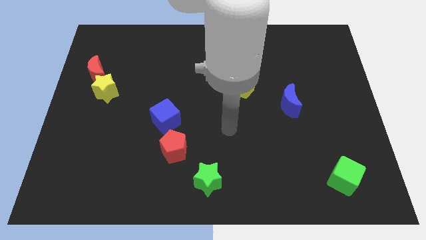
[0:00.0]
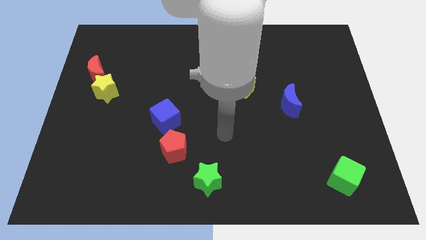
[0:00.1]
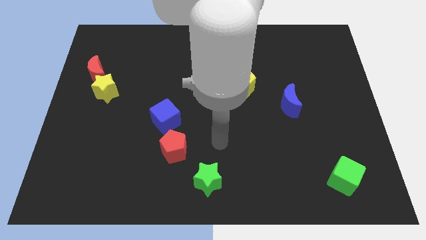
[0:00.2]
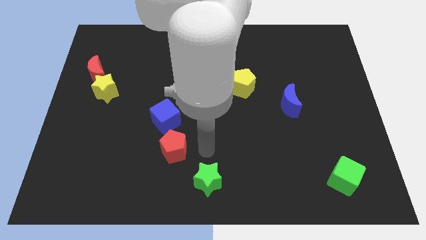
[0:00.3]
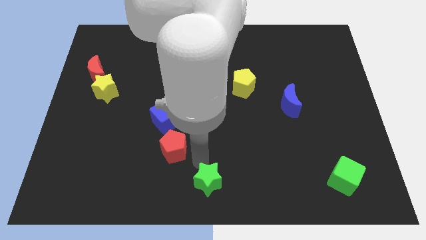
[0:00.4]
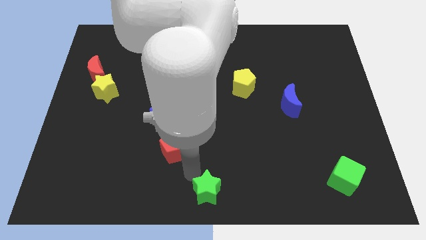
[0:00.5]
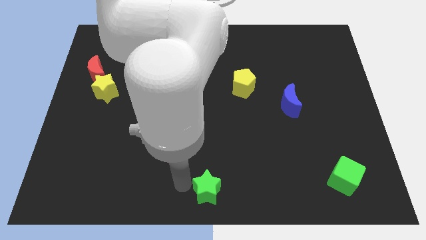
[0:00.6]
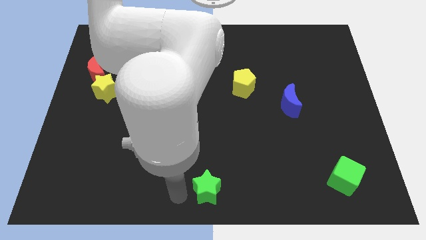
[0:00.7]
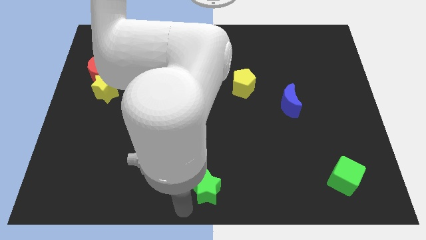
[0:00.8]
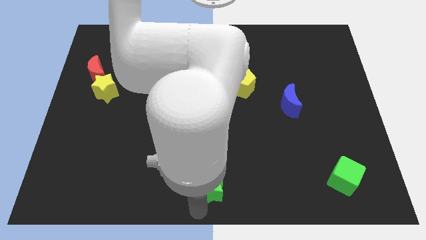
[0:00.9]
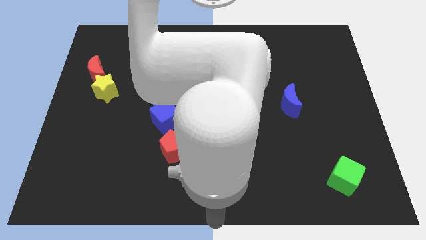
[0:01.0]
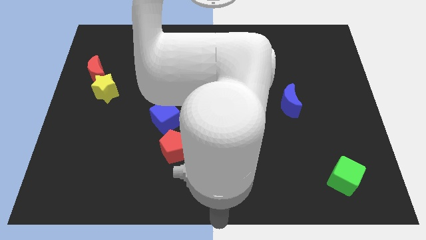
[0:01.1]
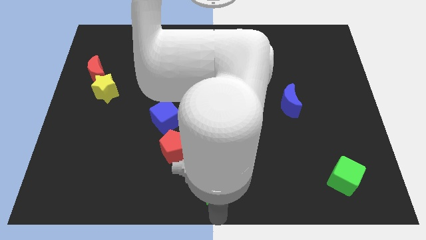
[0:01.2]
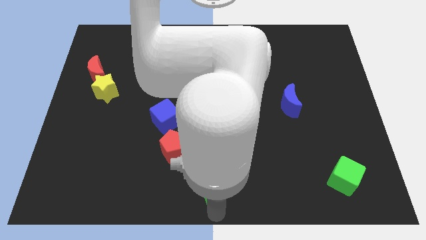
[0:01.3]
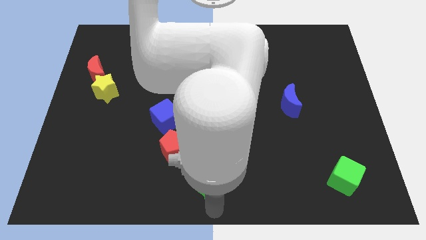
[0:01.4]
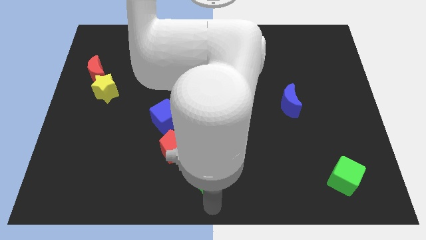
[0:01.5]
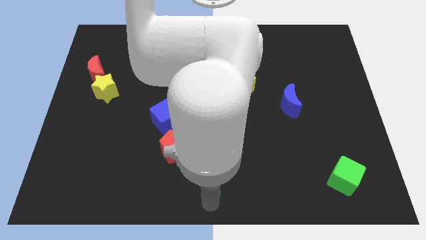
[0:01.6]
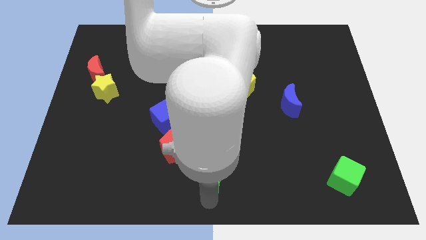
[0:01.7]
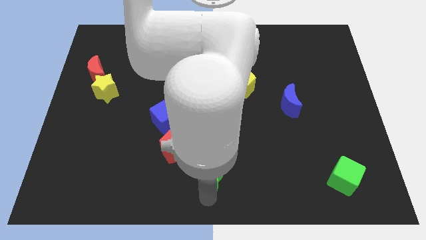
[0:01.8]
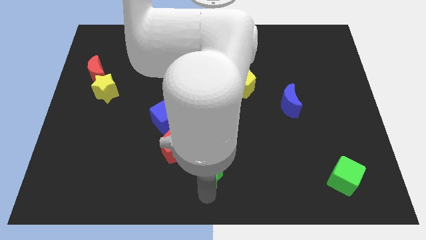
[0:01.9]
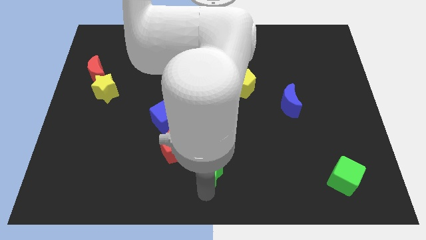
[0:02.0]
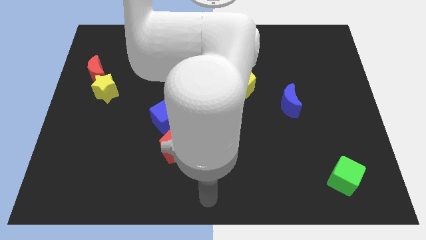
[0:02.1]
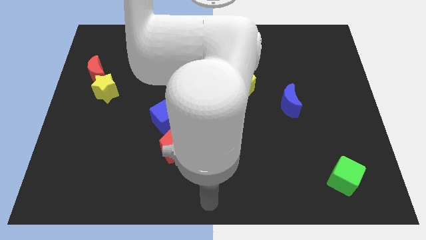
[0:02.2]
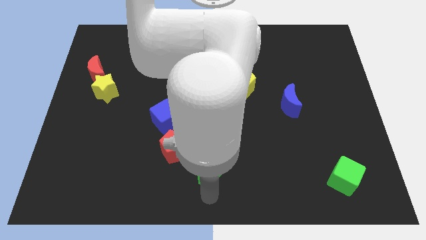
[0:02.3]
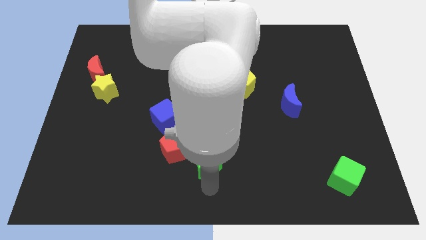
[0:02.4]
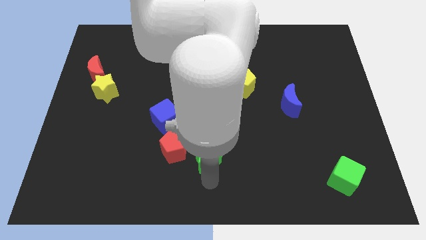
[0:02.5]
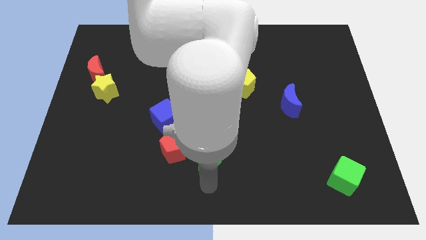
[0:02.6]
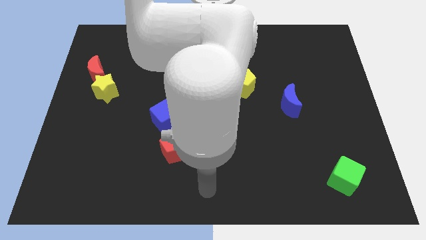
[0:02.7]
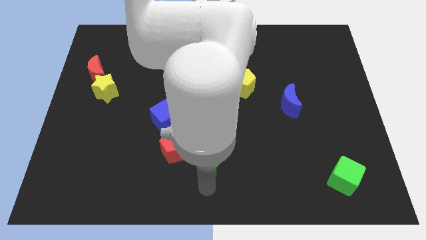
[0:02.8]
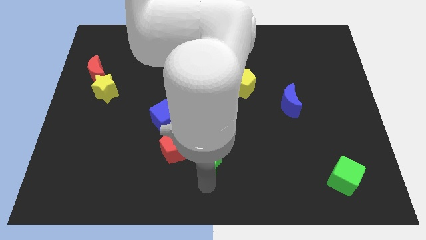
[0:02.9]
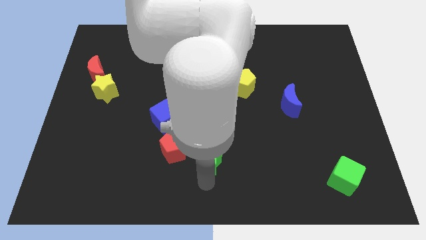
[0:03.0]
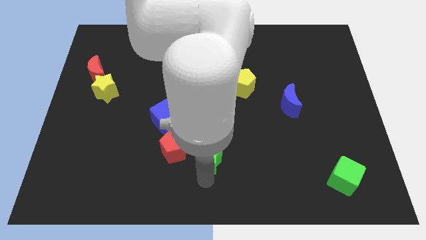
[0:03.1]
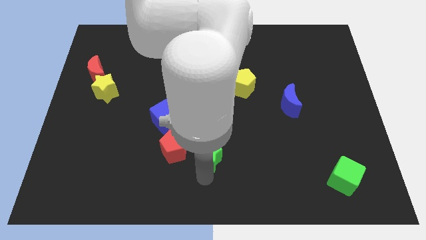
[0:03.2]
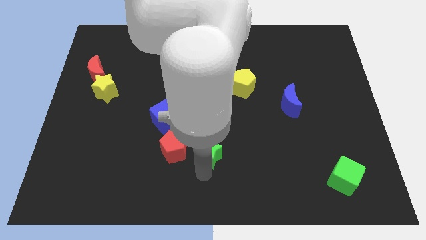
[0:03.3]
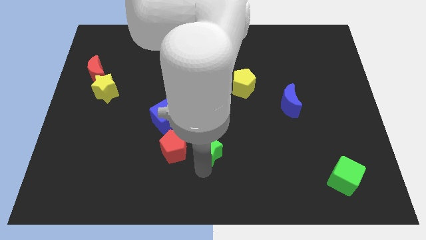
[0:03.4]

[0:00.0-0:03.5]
slide the green star up slightly

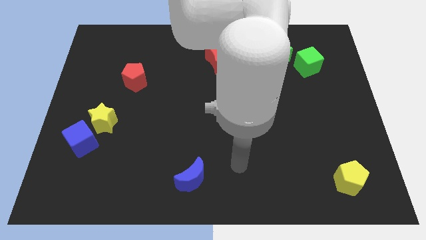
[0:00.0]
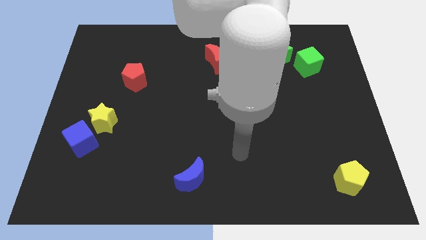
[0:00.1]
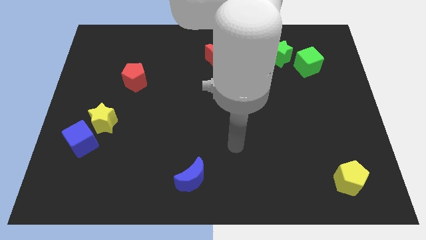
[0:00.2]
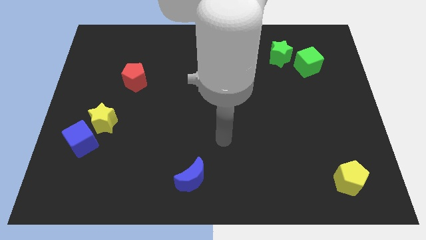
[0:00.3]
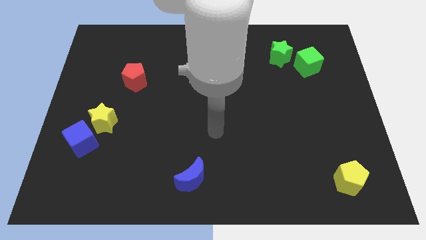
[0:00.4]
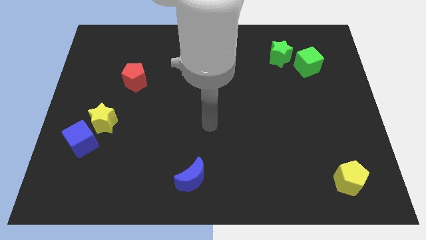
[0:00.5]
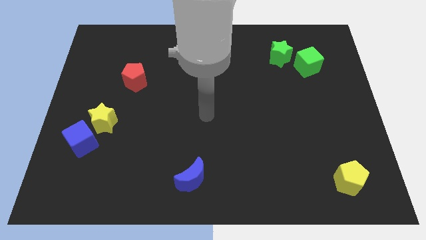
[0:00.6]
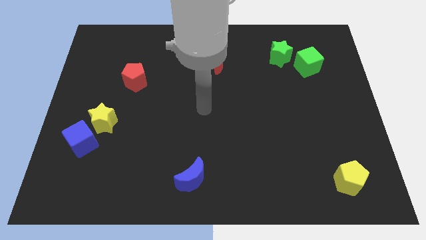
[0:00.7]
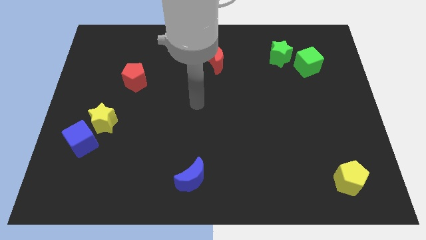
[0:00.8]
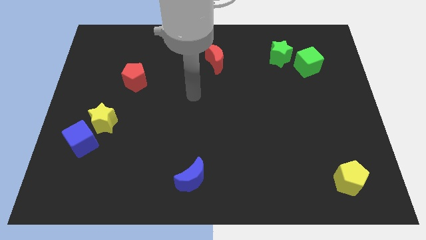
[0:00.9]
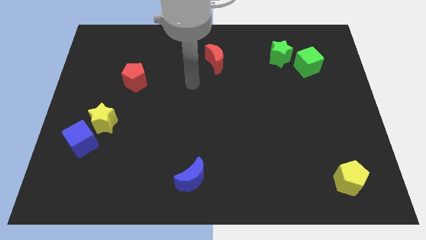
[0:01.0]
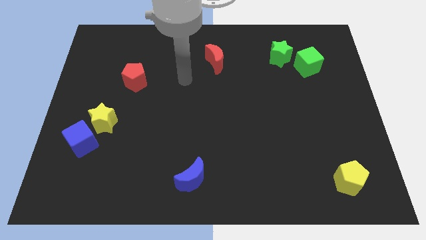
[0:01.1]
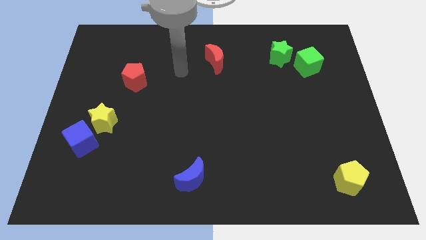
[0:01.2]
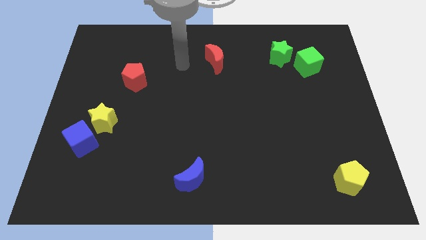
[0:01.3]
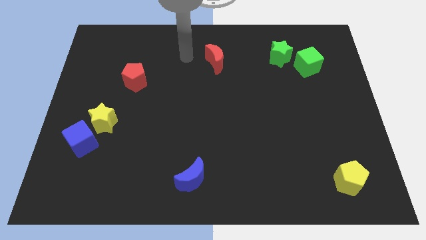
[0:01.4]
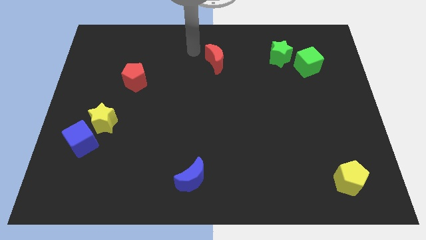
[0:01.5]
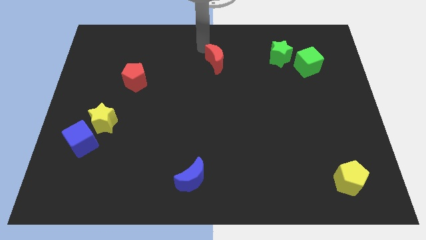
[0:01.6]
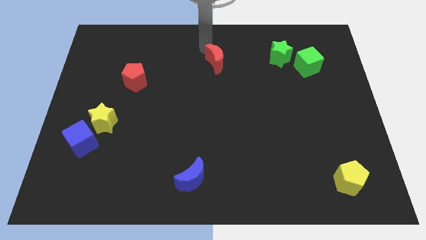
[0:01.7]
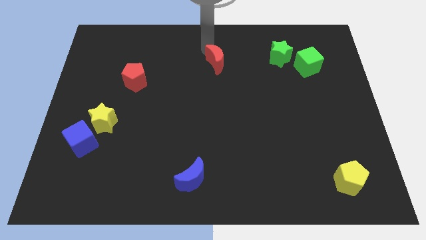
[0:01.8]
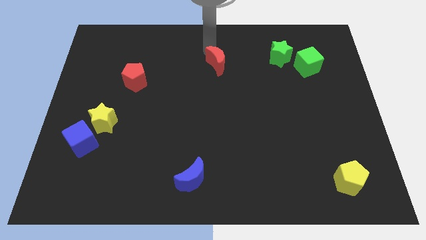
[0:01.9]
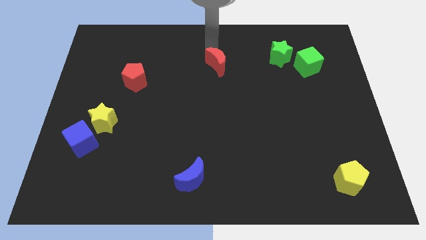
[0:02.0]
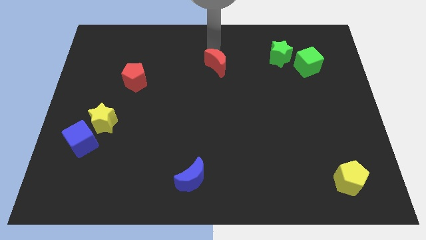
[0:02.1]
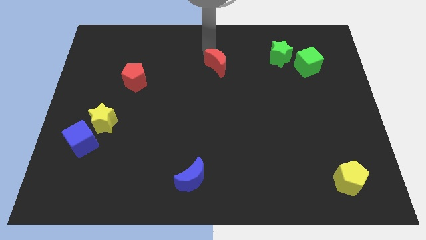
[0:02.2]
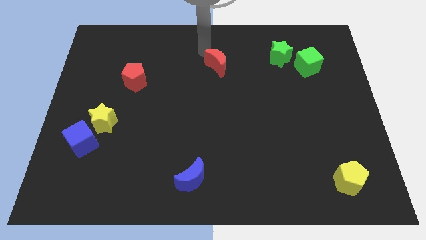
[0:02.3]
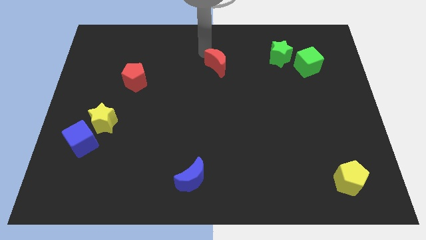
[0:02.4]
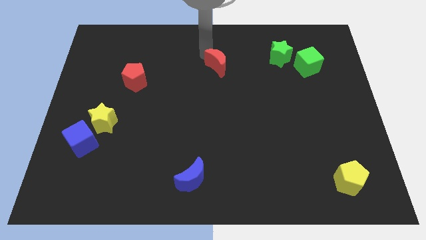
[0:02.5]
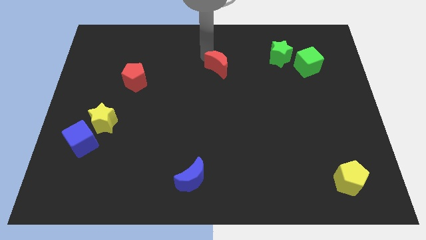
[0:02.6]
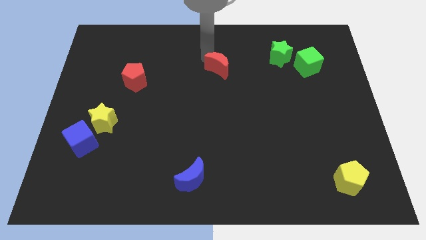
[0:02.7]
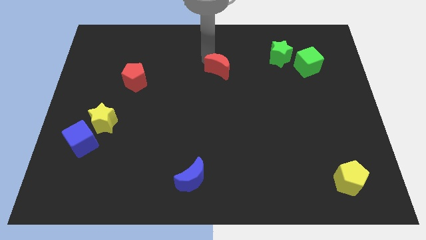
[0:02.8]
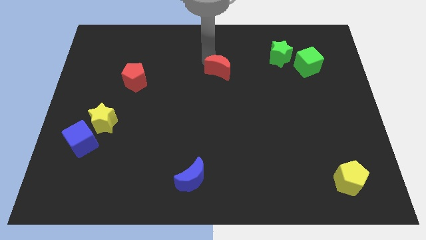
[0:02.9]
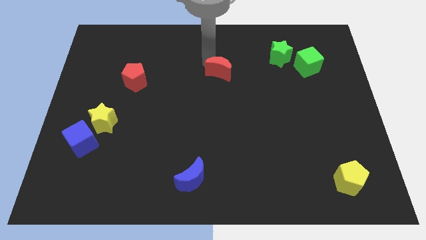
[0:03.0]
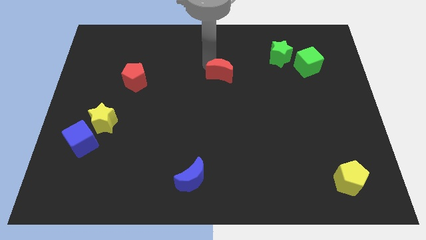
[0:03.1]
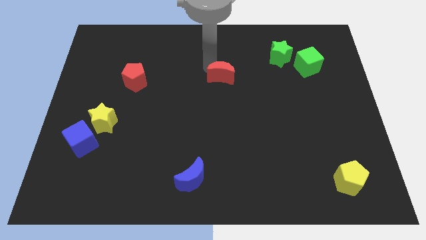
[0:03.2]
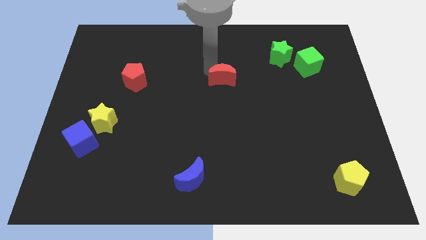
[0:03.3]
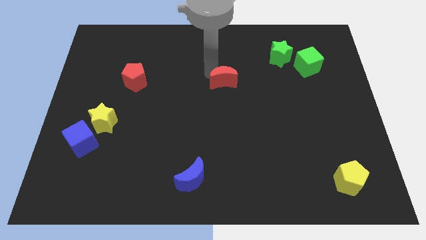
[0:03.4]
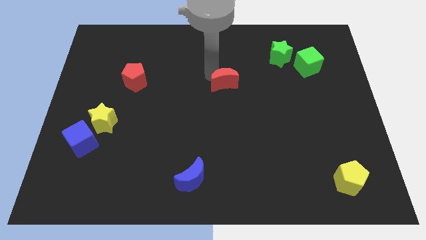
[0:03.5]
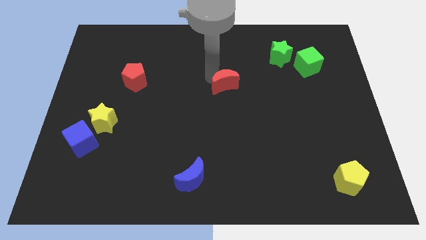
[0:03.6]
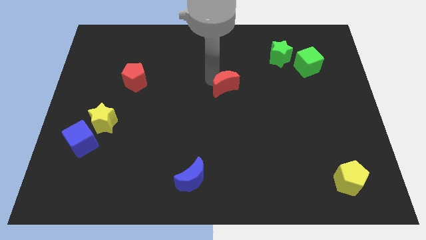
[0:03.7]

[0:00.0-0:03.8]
slightly slide the red moon diagonally downwards and to the right

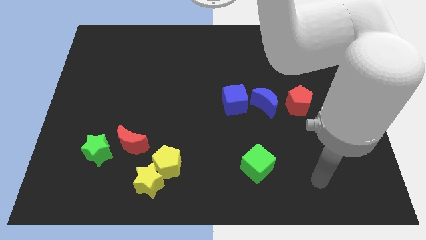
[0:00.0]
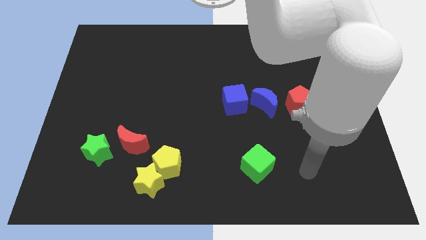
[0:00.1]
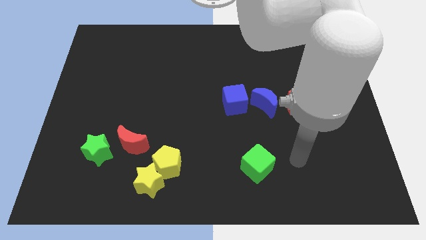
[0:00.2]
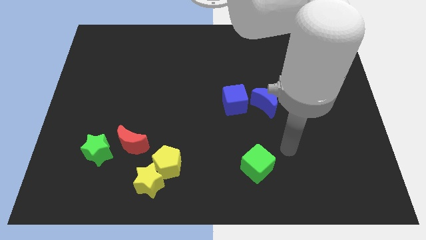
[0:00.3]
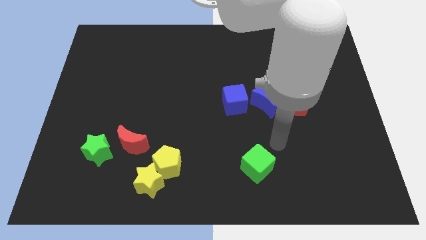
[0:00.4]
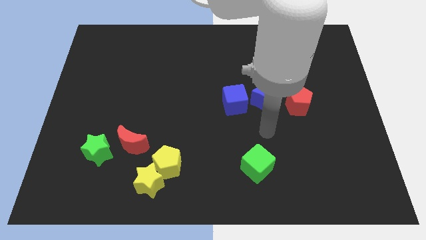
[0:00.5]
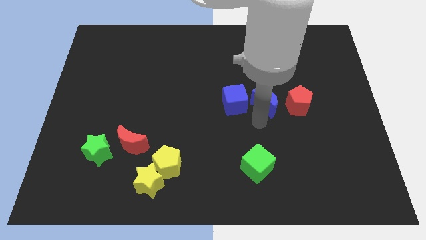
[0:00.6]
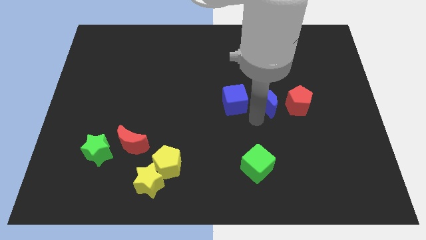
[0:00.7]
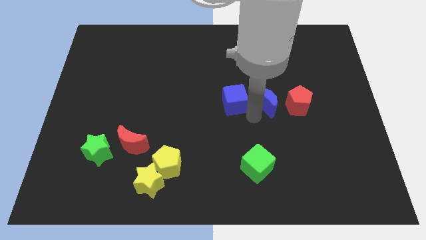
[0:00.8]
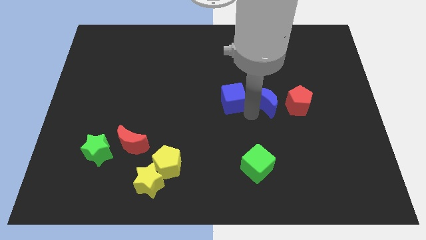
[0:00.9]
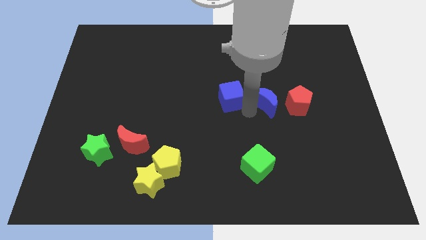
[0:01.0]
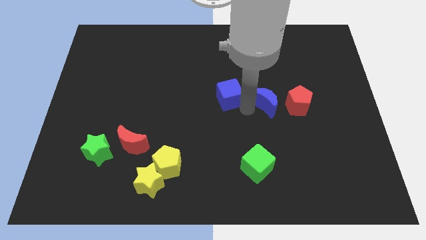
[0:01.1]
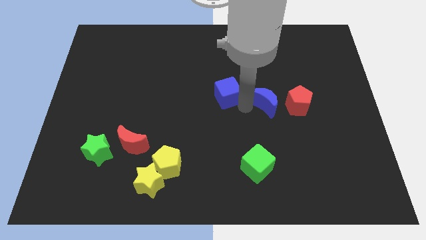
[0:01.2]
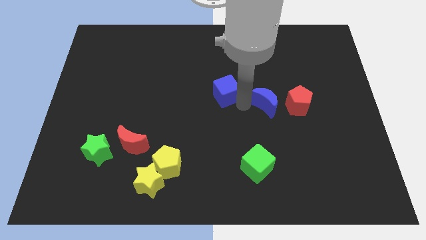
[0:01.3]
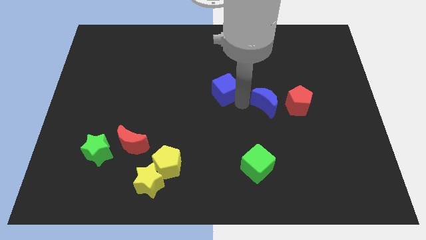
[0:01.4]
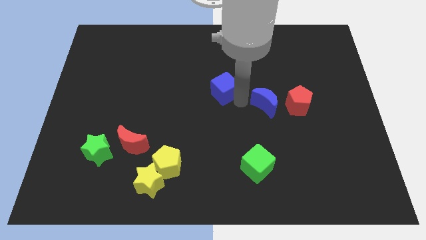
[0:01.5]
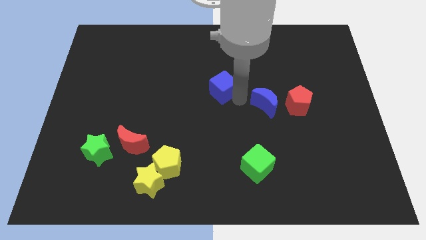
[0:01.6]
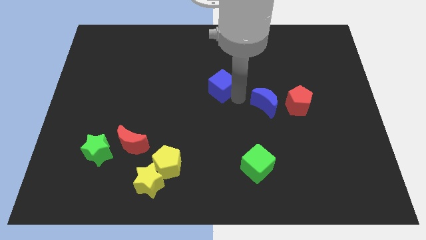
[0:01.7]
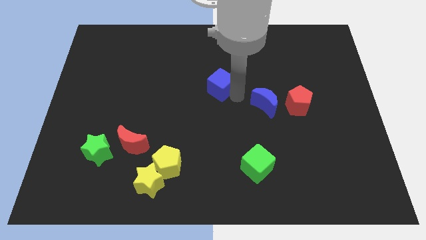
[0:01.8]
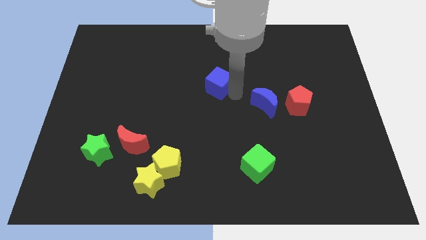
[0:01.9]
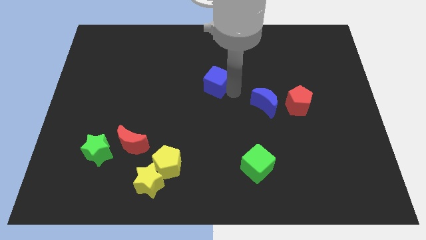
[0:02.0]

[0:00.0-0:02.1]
slide the blue cube upwards and then left slightly
